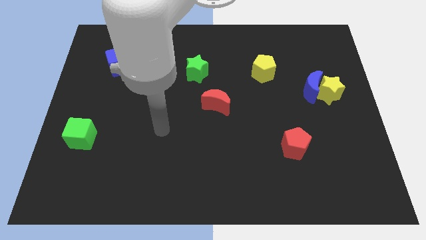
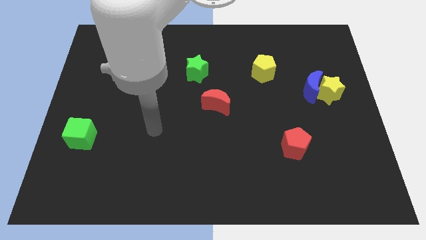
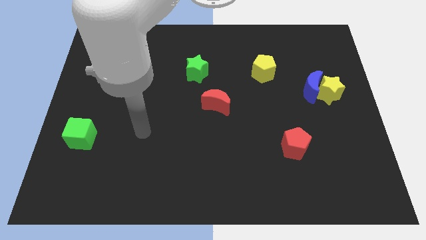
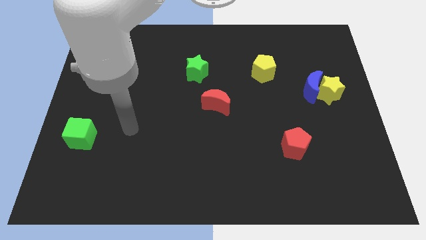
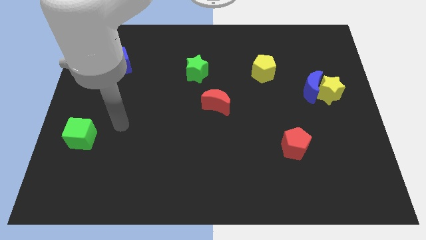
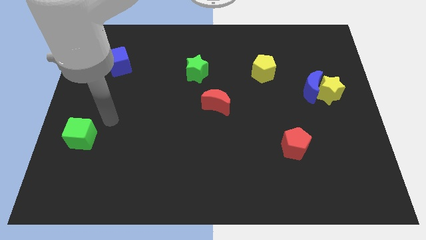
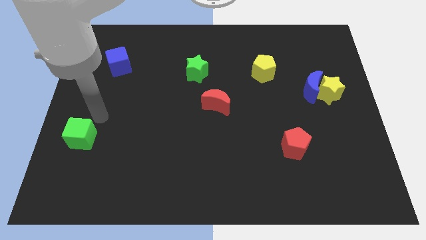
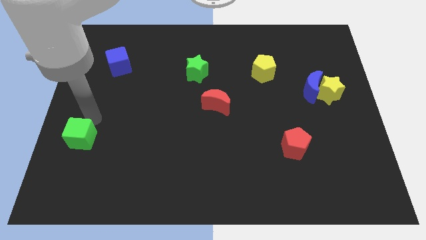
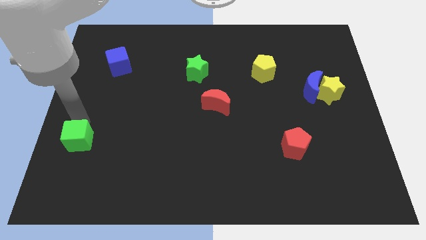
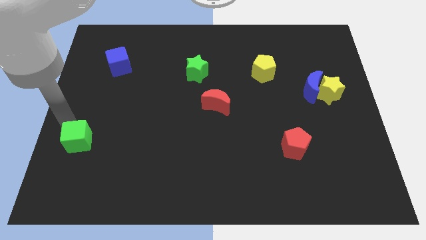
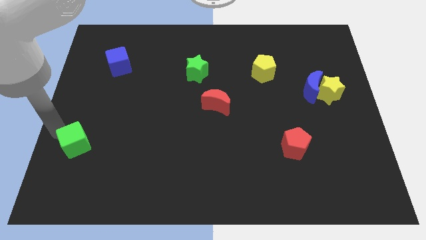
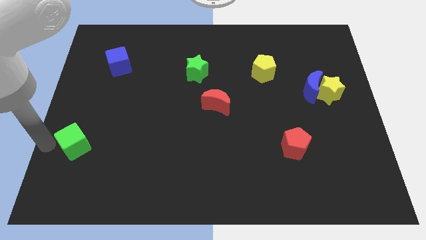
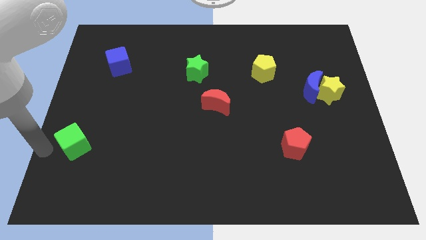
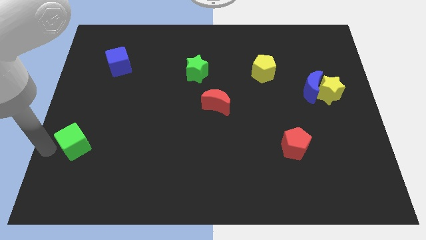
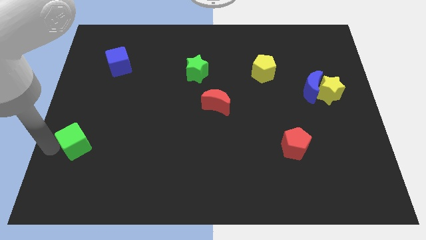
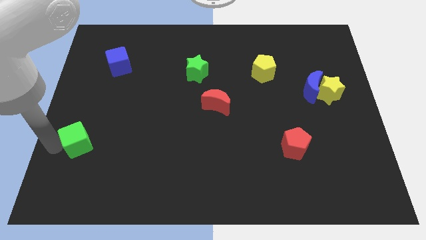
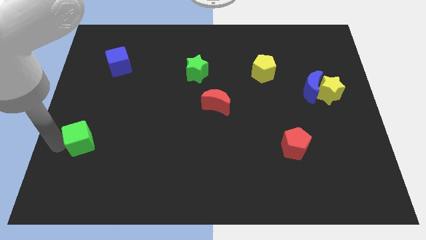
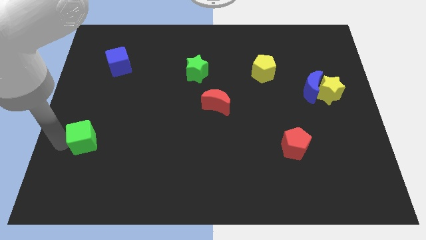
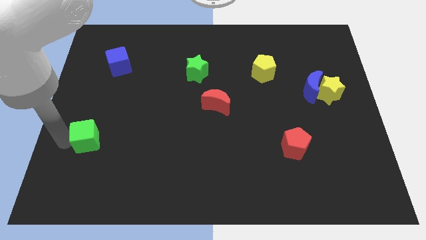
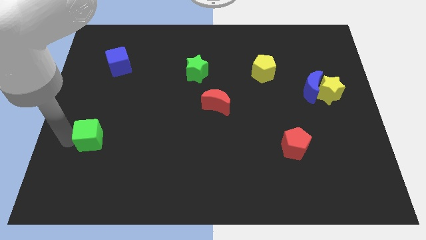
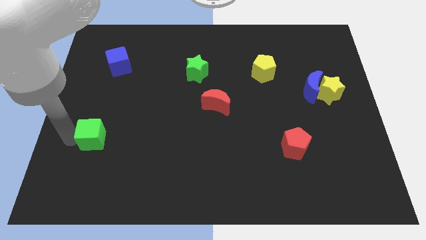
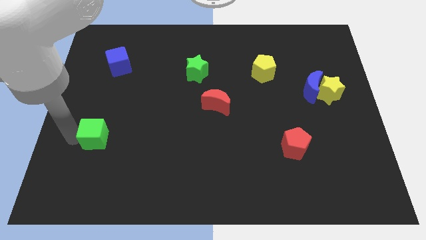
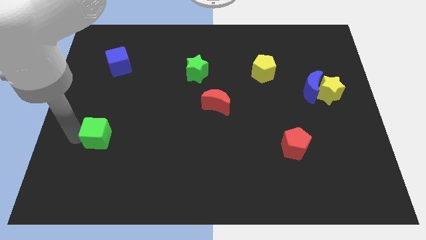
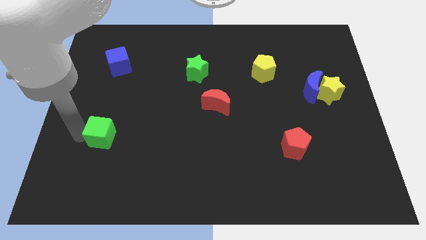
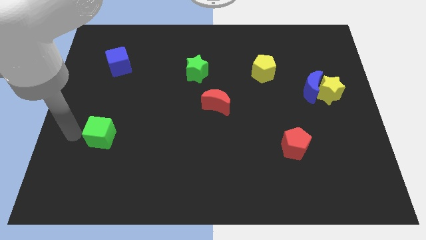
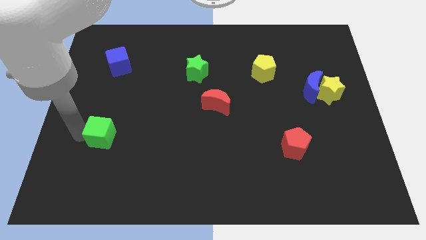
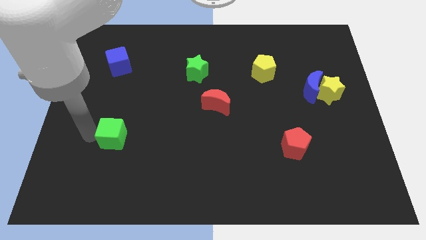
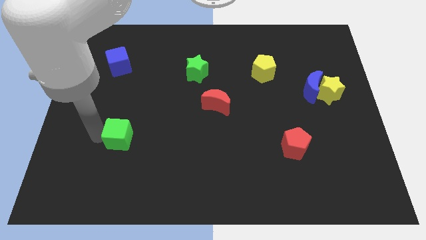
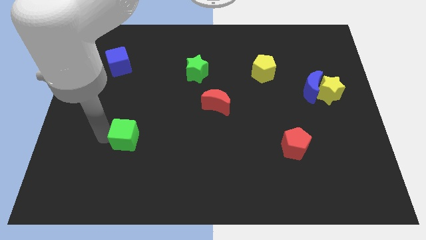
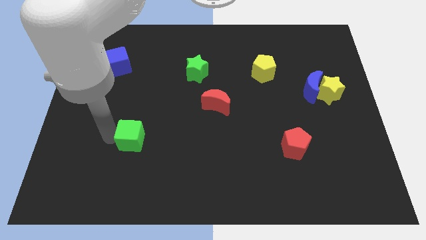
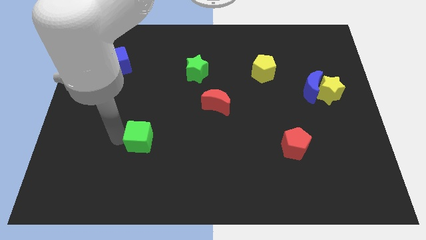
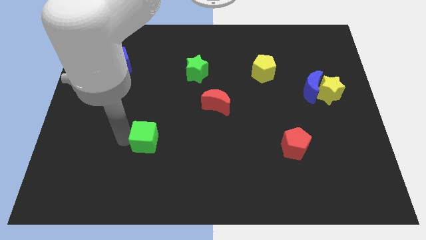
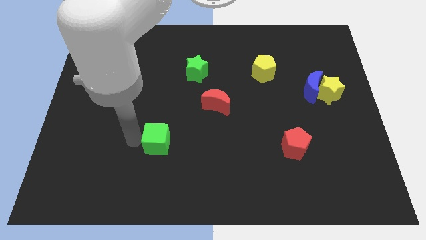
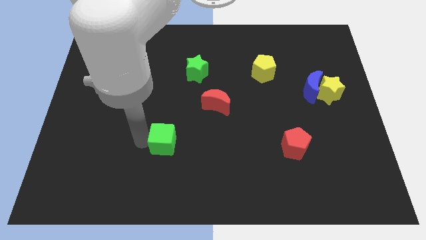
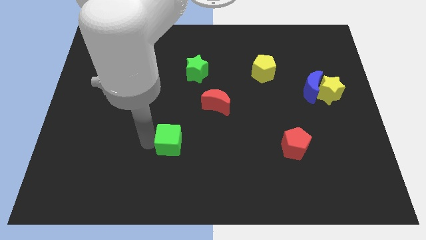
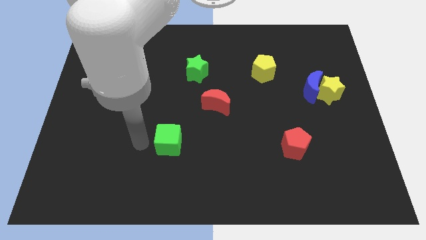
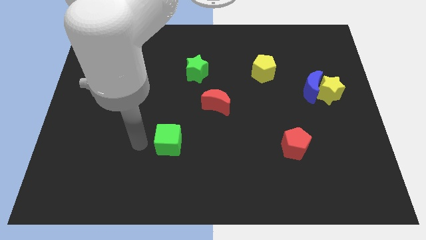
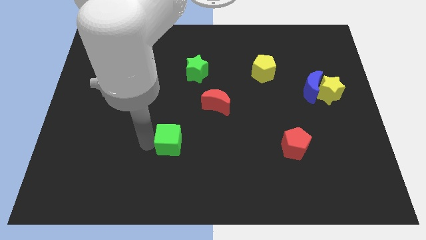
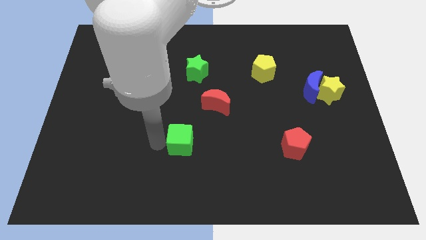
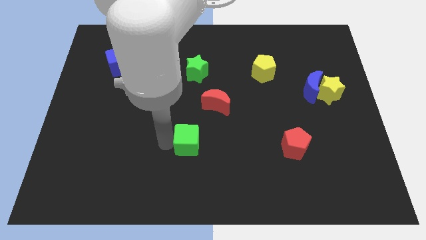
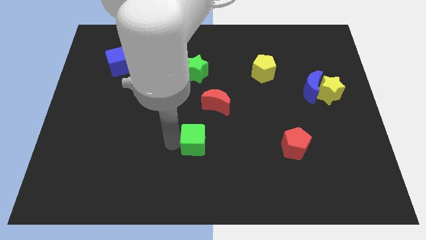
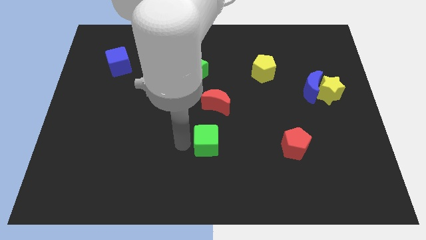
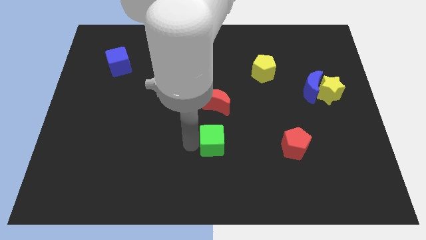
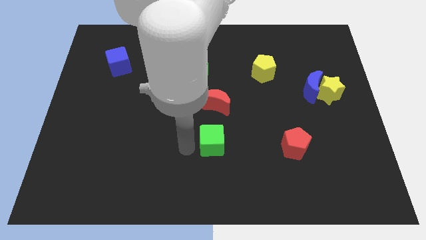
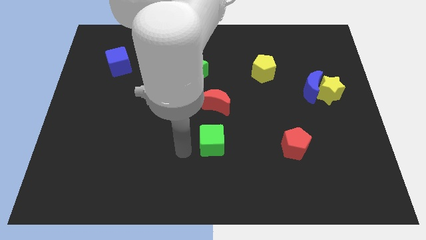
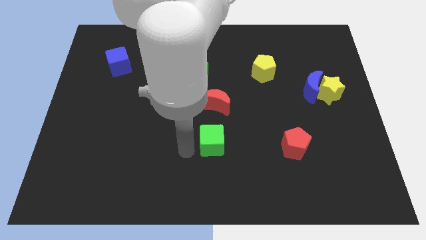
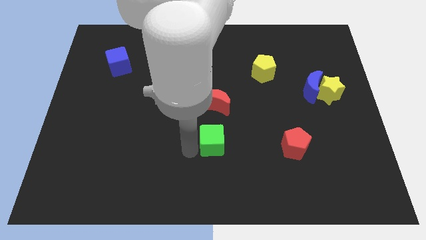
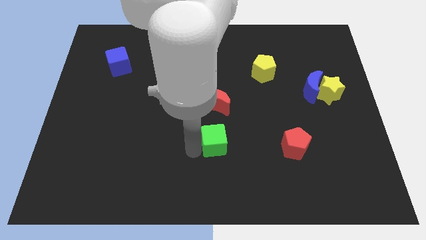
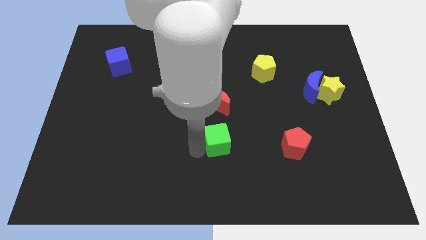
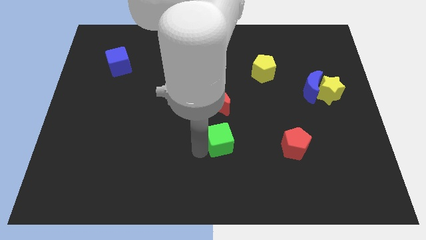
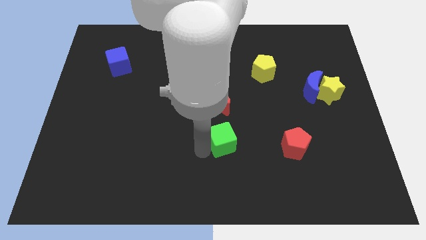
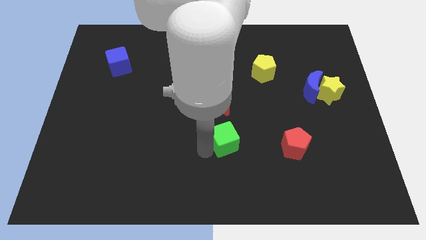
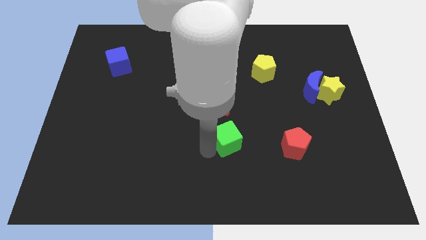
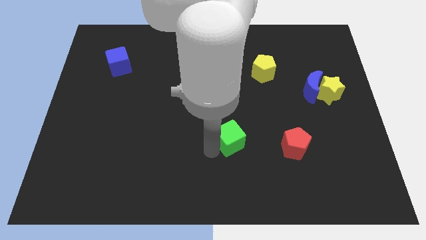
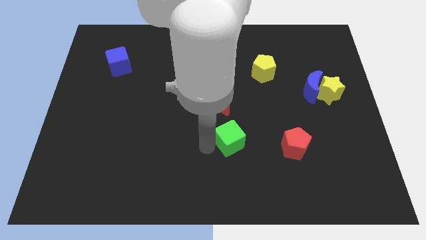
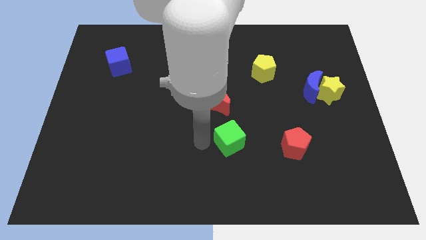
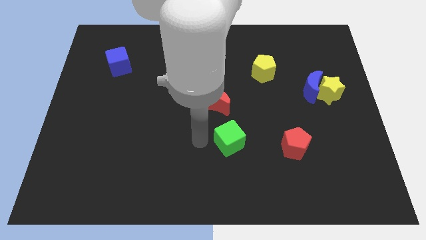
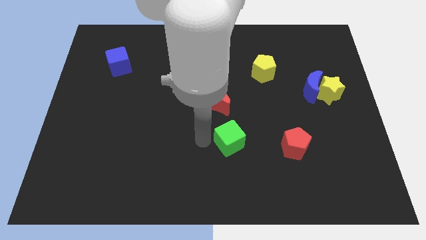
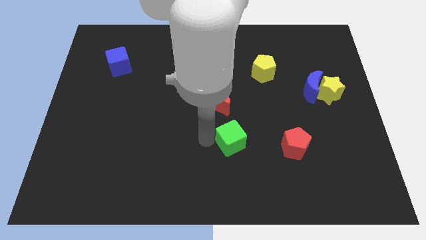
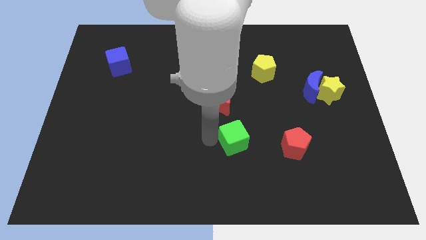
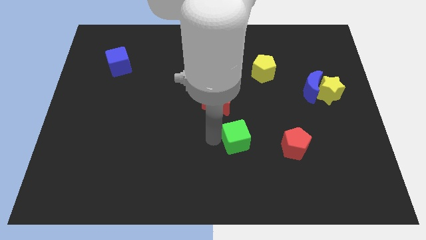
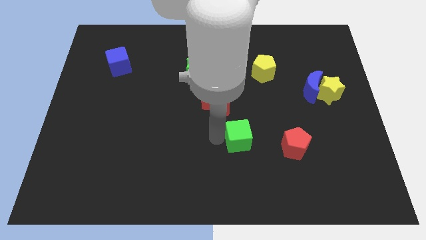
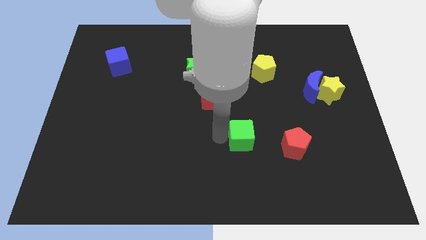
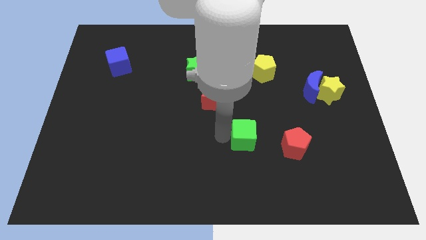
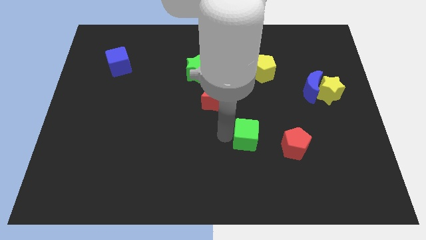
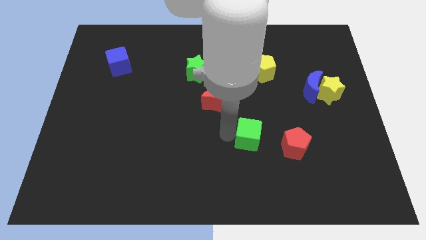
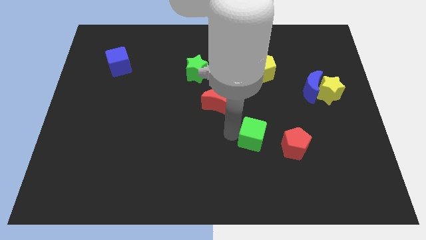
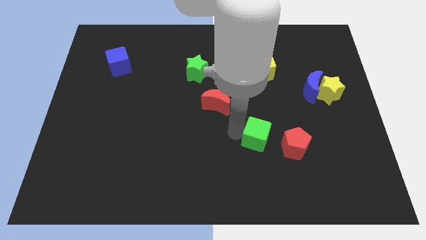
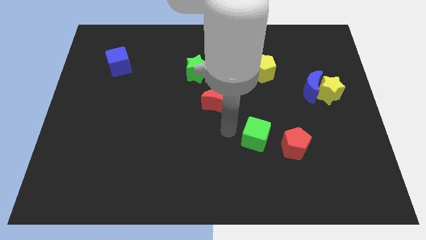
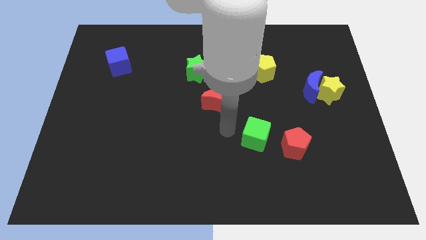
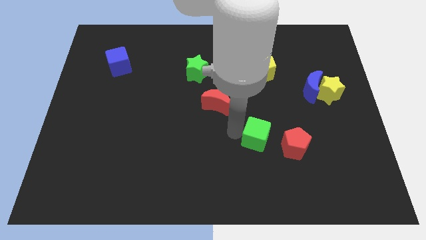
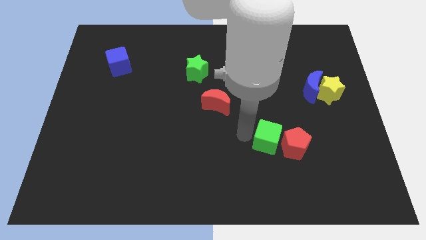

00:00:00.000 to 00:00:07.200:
slide the green cube next to the red pentagon

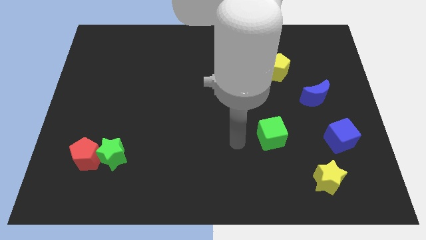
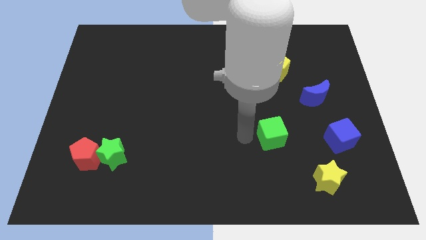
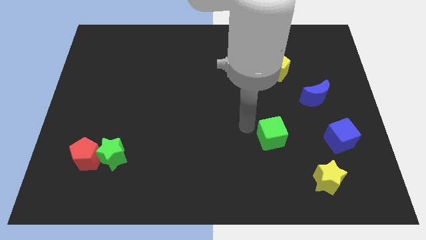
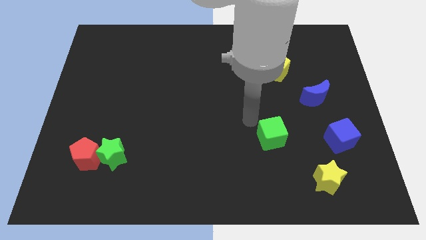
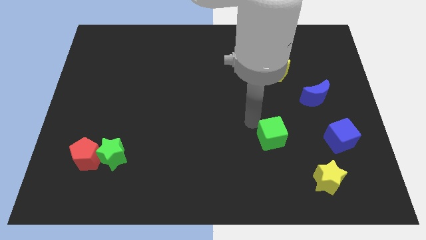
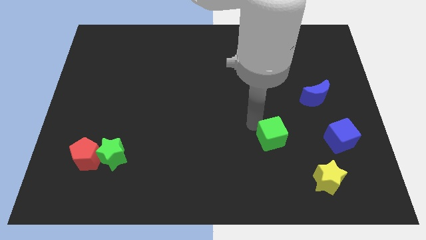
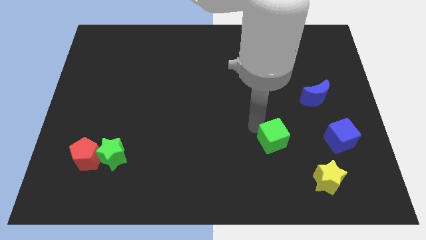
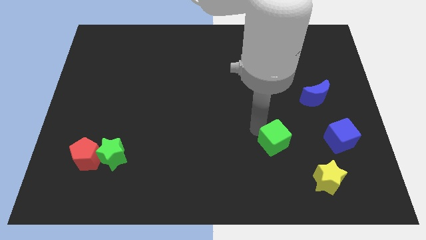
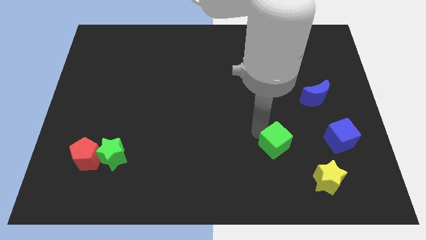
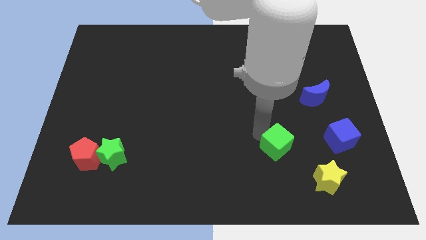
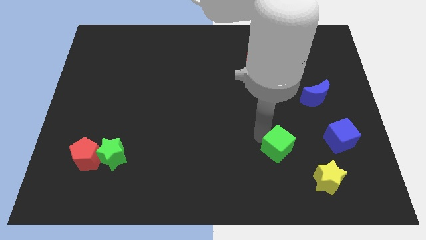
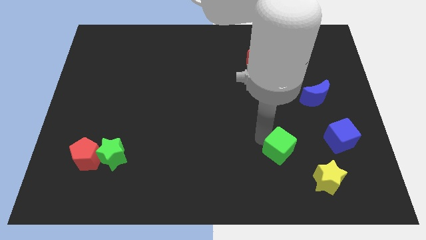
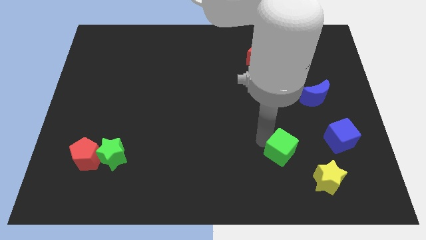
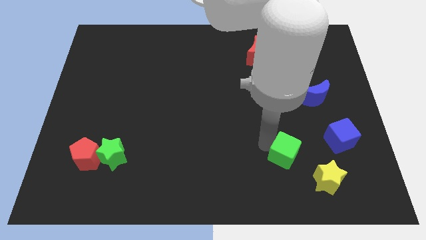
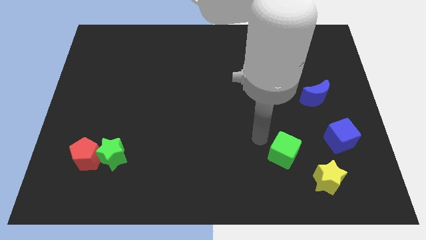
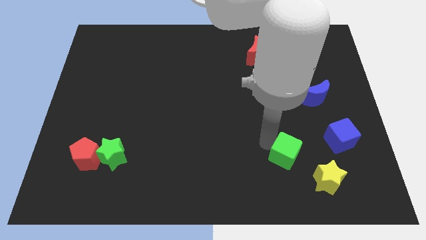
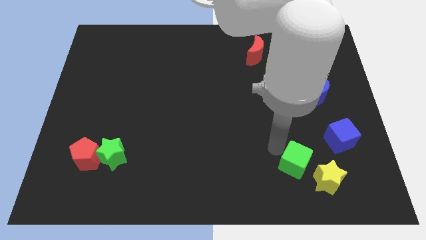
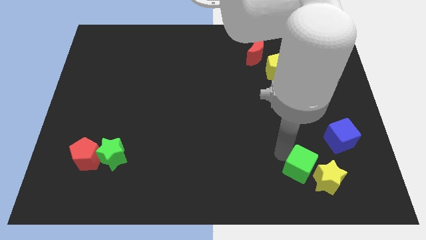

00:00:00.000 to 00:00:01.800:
move the green cube close to the yellow star
